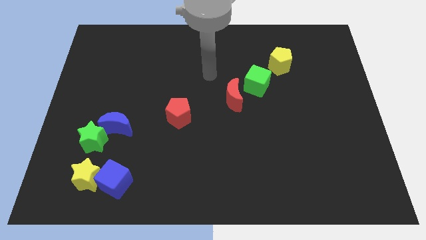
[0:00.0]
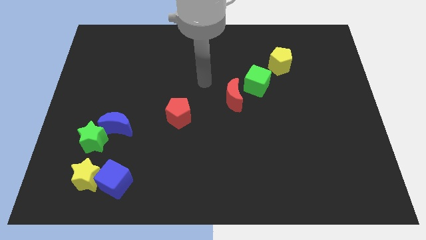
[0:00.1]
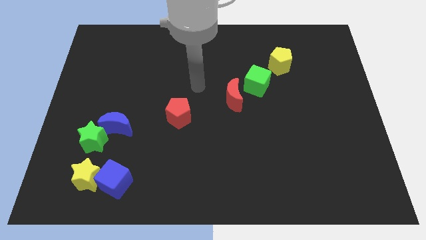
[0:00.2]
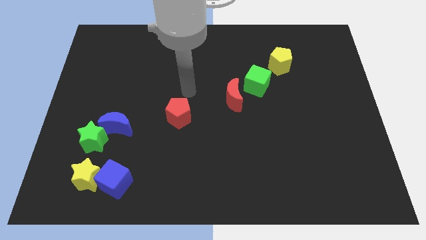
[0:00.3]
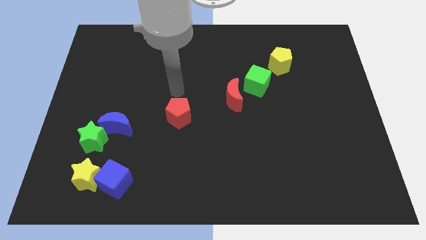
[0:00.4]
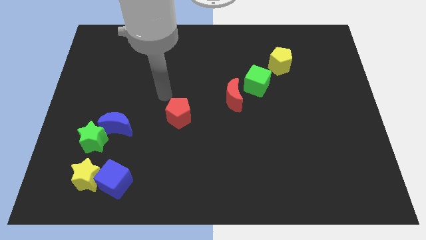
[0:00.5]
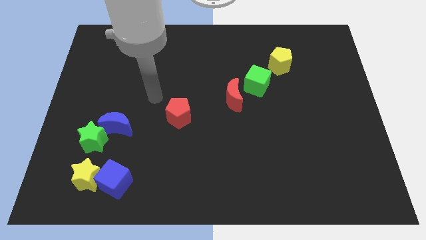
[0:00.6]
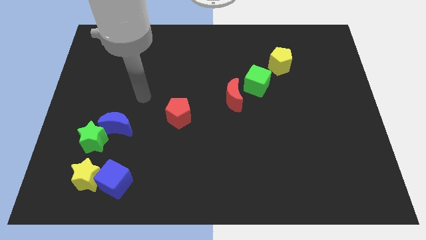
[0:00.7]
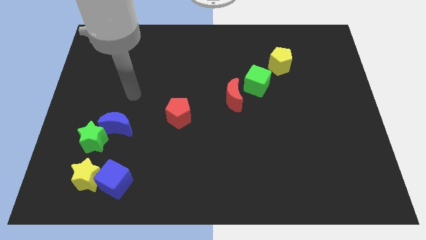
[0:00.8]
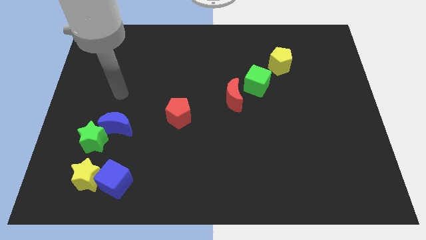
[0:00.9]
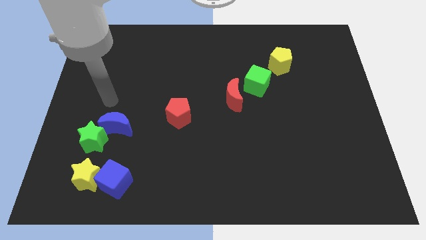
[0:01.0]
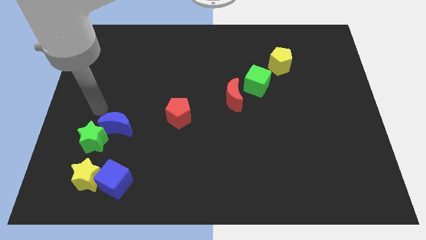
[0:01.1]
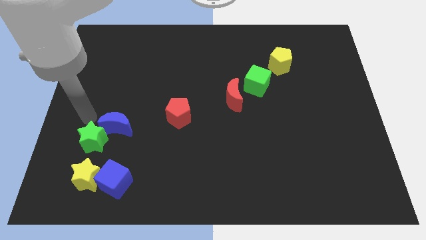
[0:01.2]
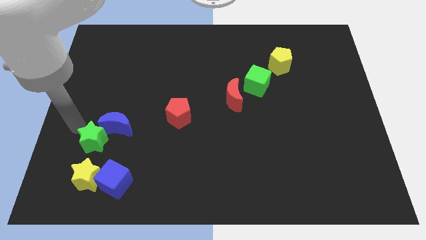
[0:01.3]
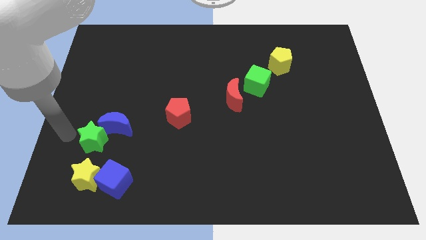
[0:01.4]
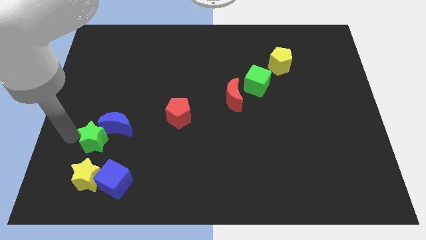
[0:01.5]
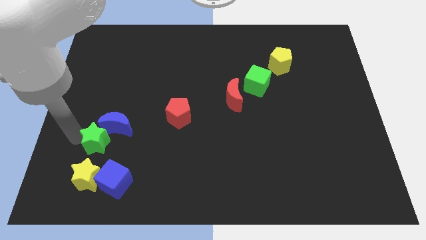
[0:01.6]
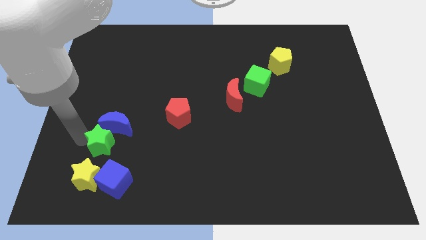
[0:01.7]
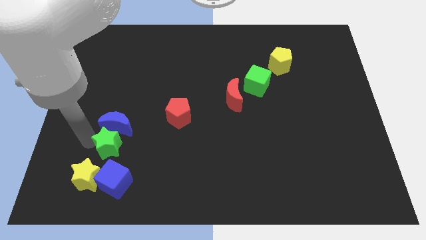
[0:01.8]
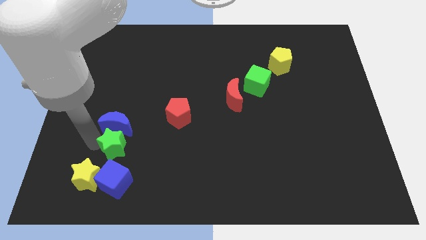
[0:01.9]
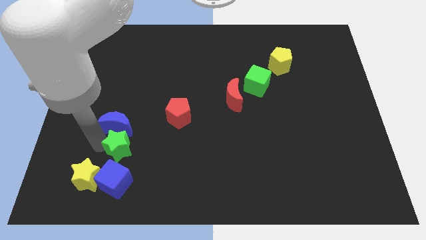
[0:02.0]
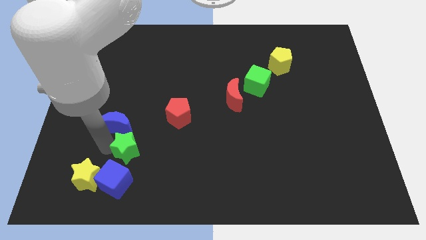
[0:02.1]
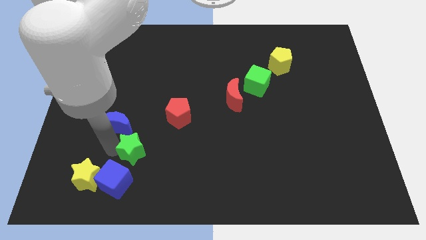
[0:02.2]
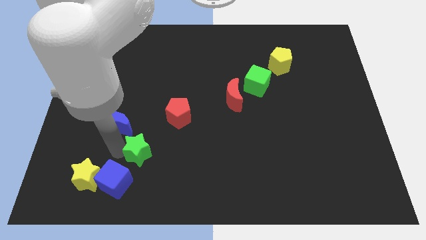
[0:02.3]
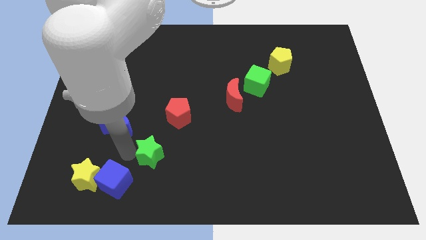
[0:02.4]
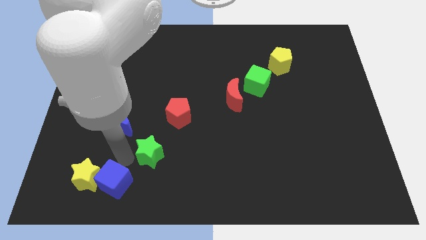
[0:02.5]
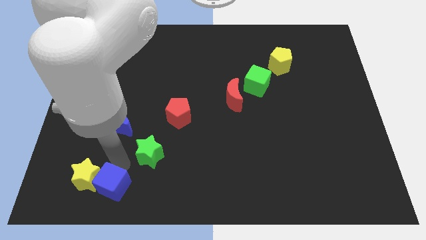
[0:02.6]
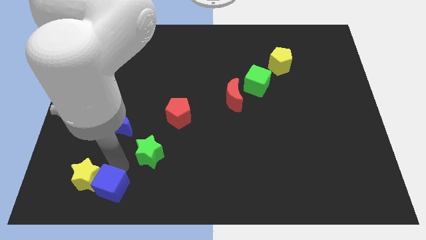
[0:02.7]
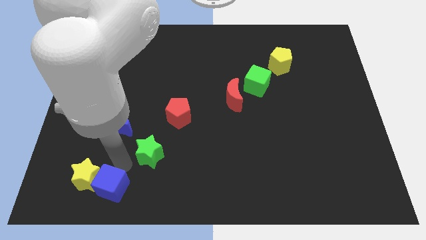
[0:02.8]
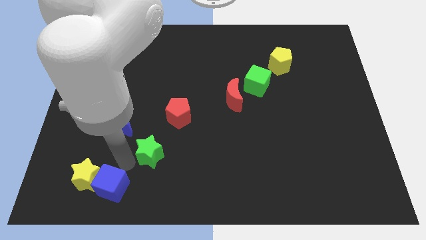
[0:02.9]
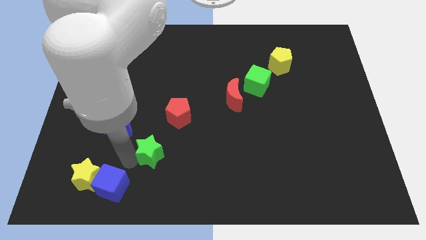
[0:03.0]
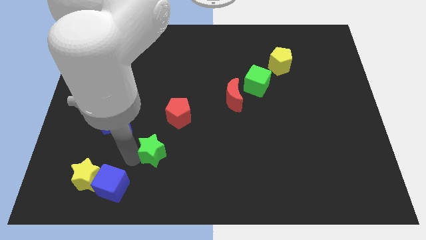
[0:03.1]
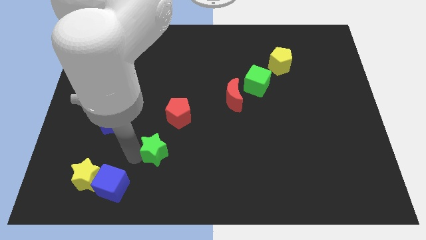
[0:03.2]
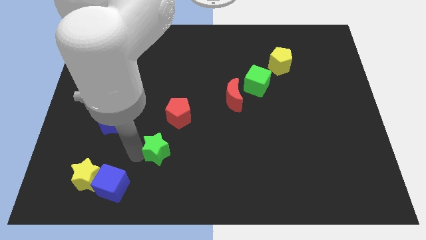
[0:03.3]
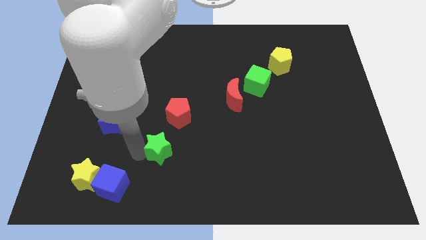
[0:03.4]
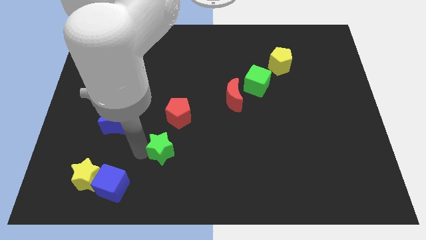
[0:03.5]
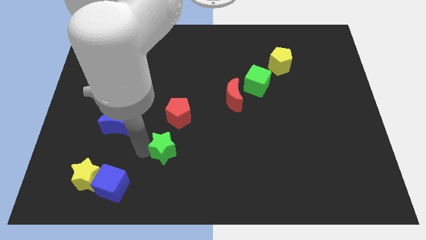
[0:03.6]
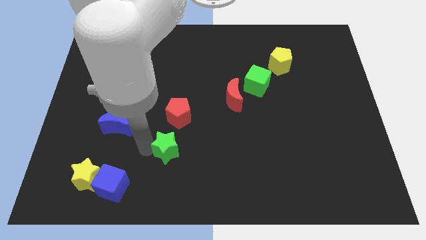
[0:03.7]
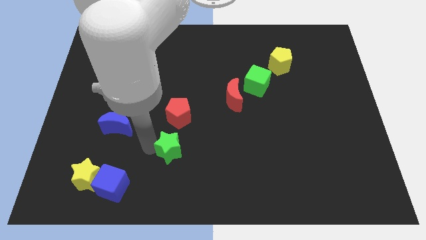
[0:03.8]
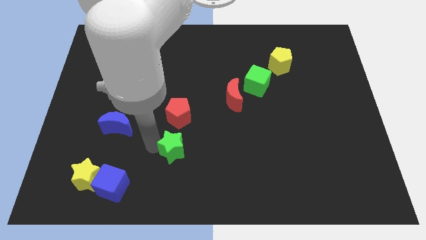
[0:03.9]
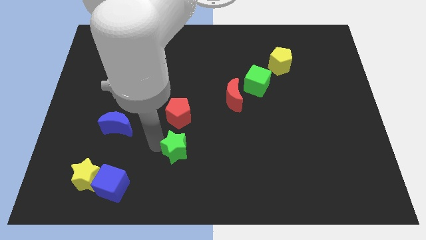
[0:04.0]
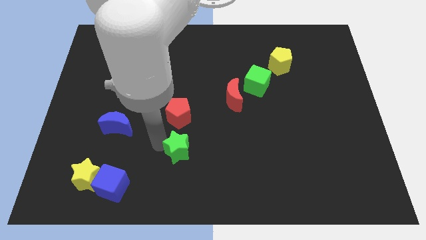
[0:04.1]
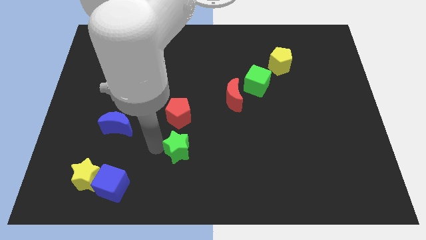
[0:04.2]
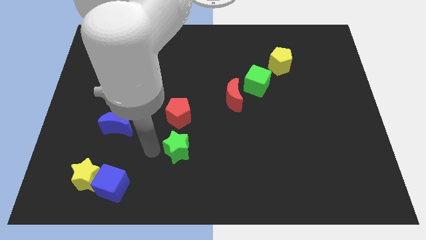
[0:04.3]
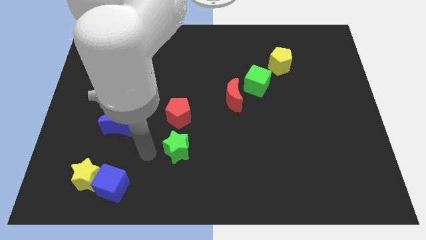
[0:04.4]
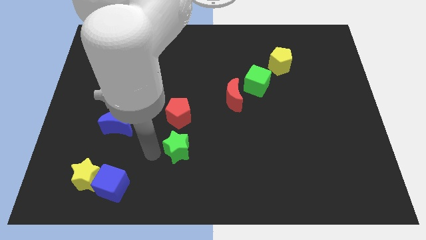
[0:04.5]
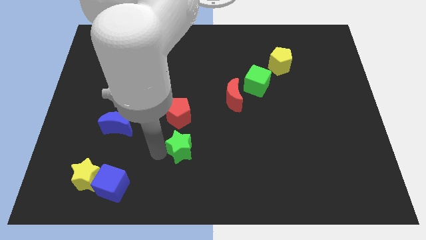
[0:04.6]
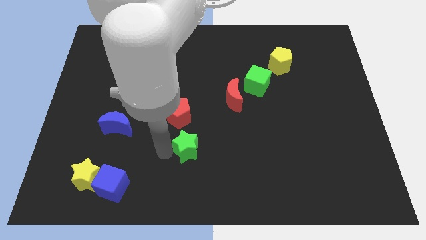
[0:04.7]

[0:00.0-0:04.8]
move the green star to the right

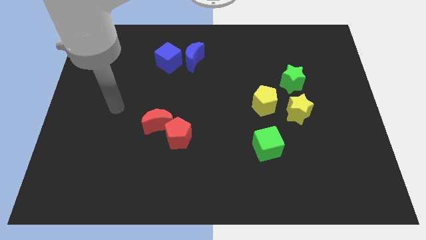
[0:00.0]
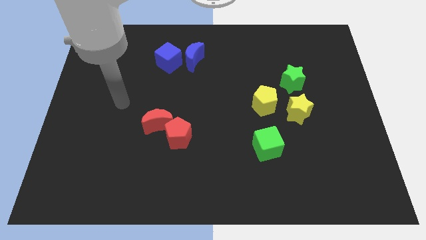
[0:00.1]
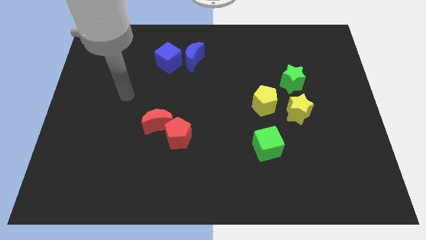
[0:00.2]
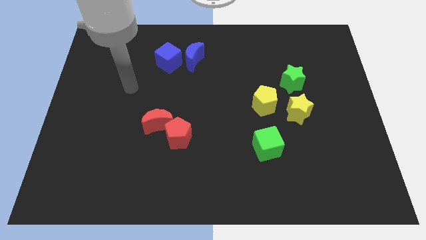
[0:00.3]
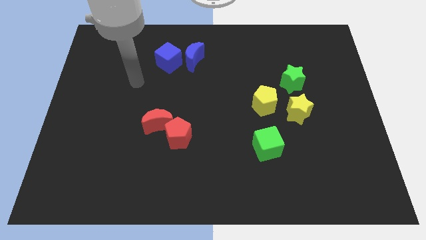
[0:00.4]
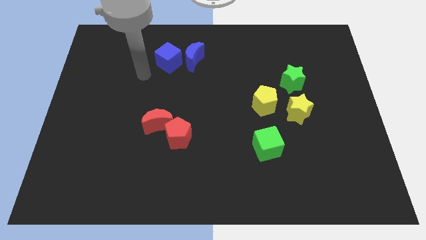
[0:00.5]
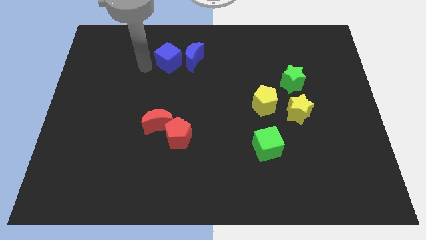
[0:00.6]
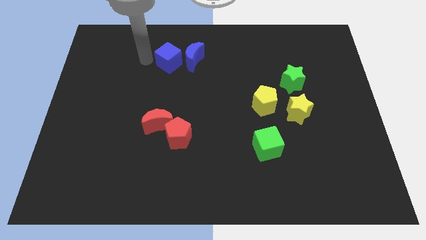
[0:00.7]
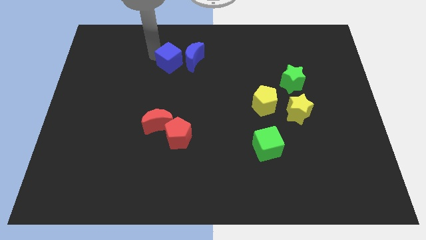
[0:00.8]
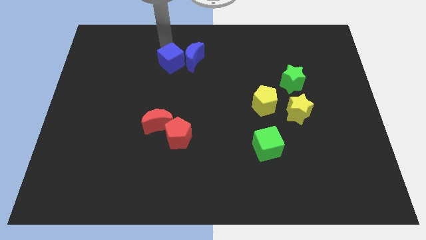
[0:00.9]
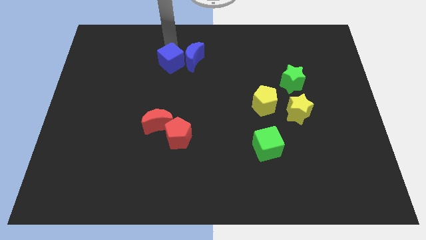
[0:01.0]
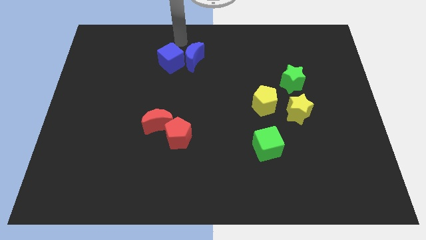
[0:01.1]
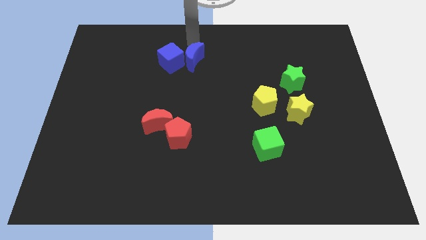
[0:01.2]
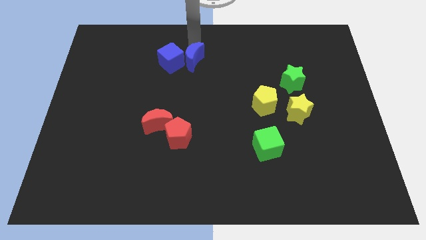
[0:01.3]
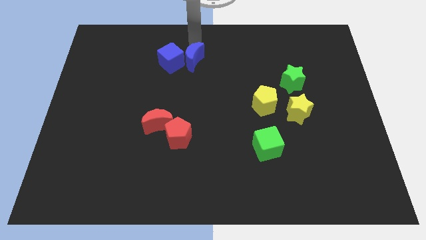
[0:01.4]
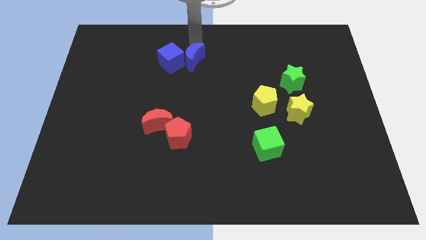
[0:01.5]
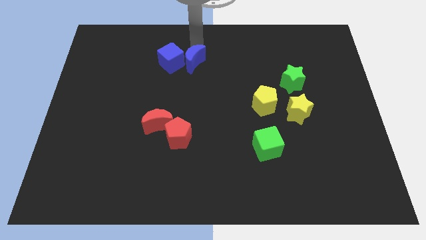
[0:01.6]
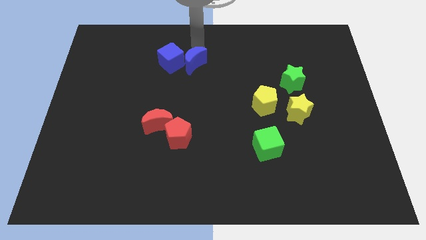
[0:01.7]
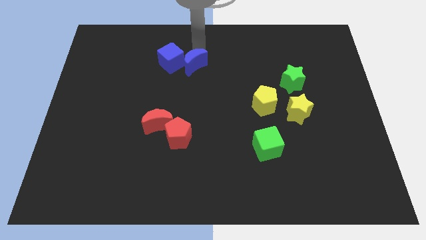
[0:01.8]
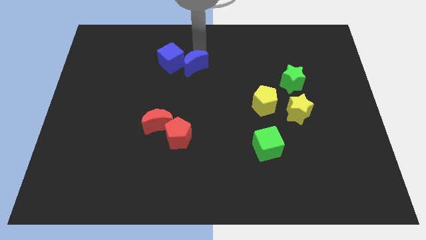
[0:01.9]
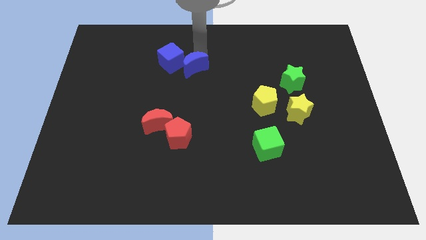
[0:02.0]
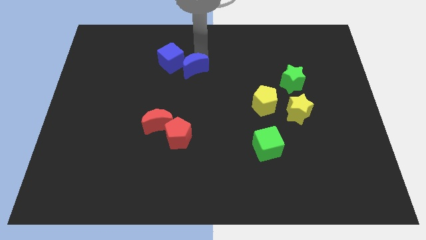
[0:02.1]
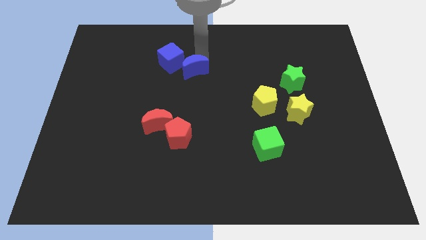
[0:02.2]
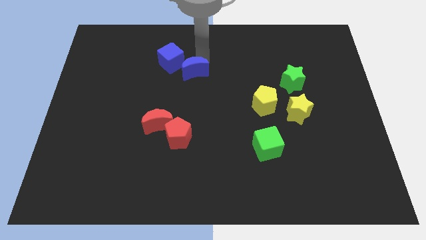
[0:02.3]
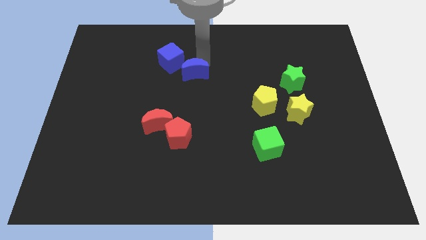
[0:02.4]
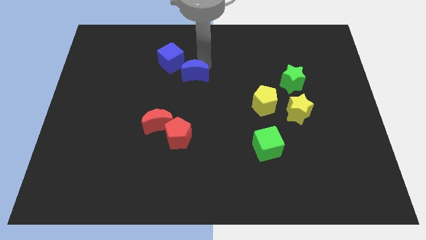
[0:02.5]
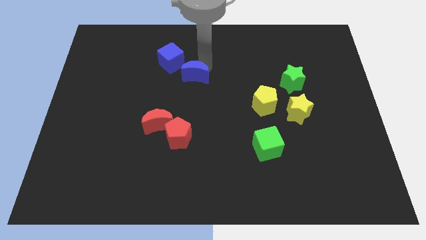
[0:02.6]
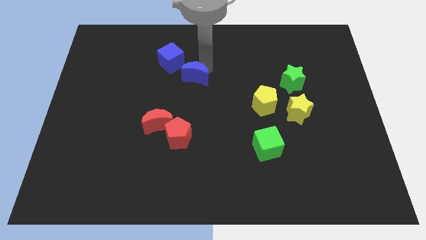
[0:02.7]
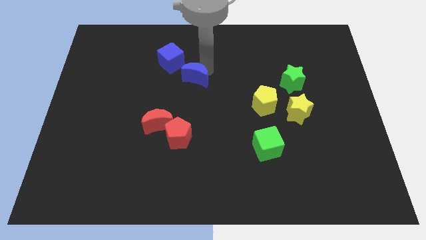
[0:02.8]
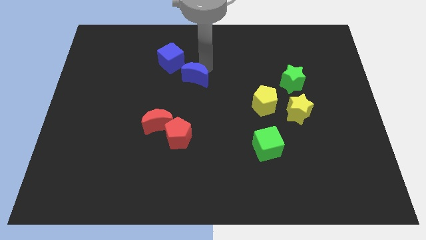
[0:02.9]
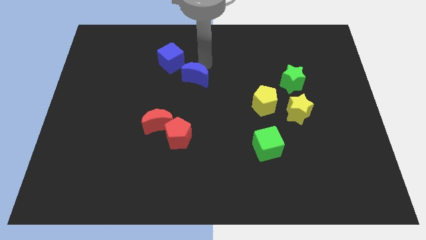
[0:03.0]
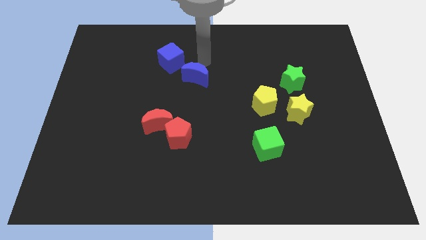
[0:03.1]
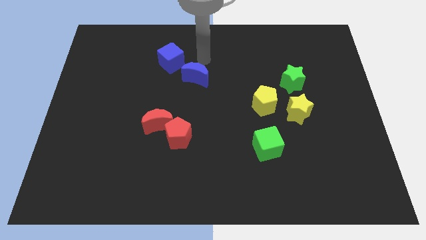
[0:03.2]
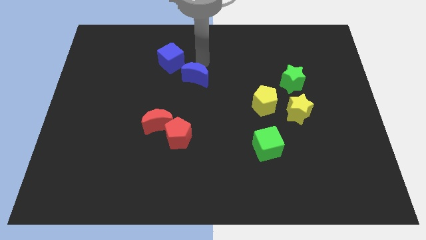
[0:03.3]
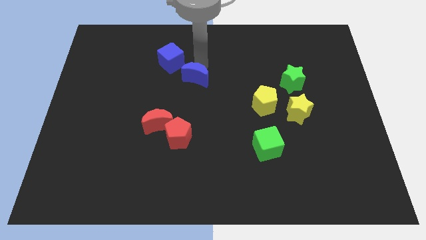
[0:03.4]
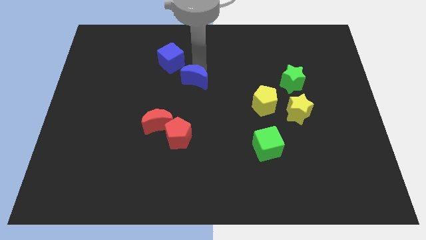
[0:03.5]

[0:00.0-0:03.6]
slightly move the blue moon down
